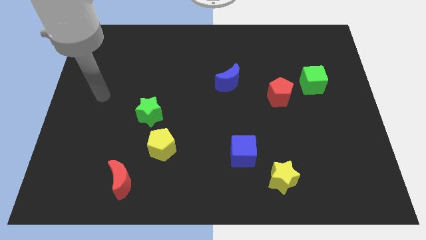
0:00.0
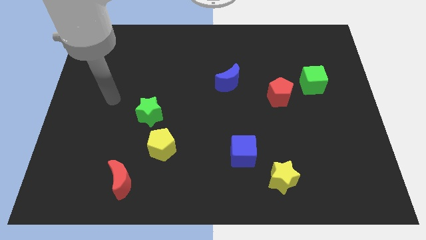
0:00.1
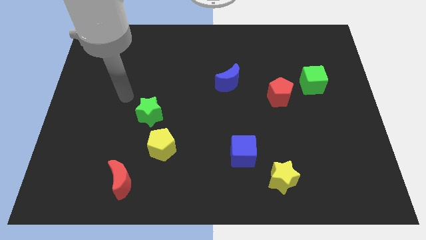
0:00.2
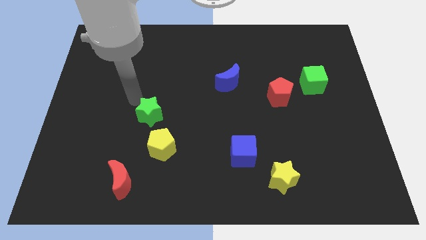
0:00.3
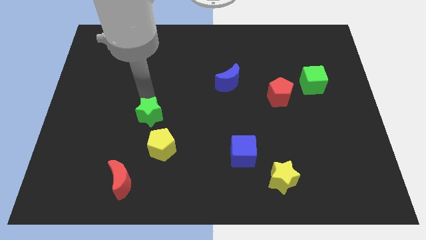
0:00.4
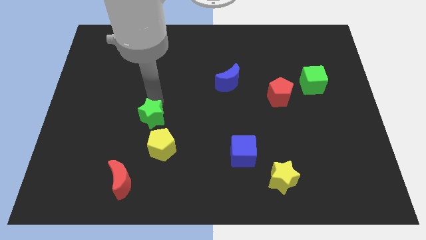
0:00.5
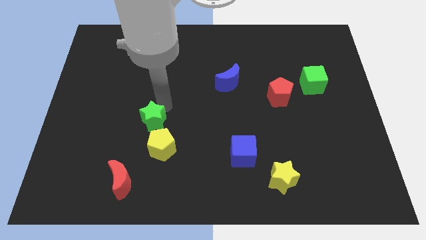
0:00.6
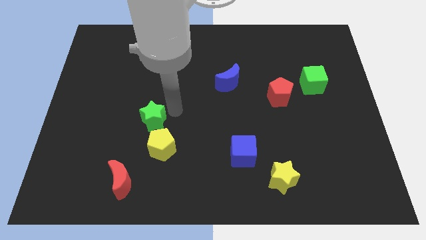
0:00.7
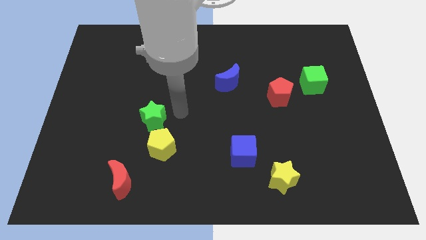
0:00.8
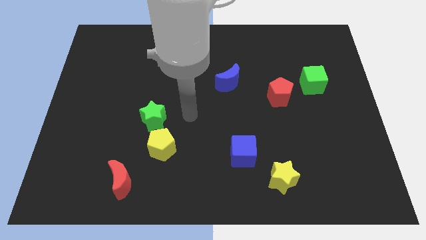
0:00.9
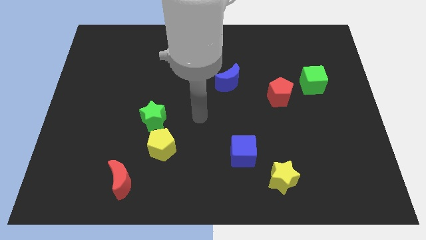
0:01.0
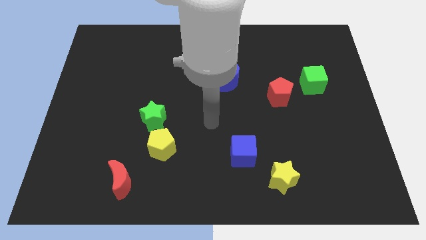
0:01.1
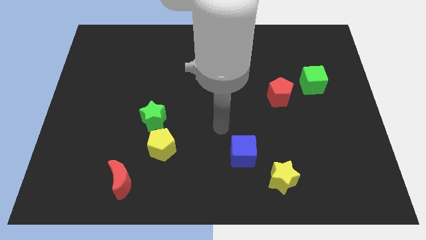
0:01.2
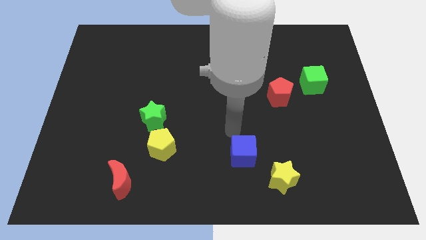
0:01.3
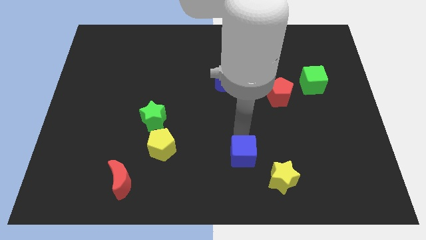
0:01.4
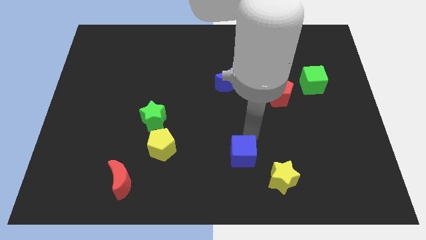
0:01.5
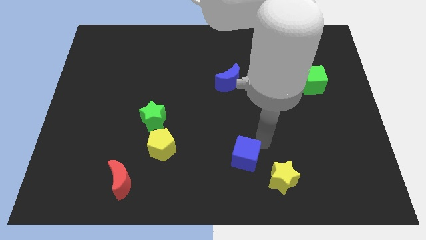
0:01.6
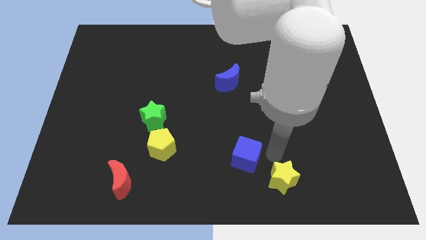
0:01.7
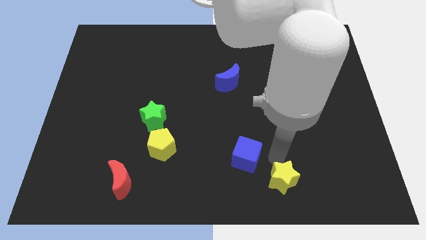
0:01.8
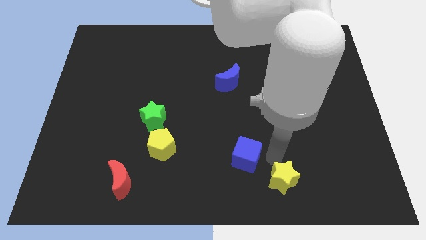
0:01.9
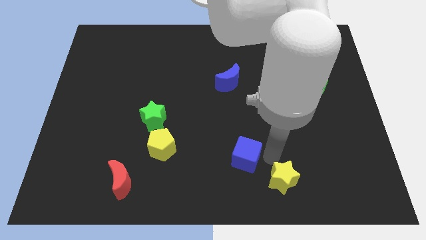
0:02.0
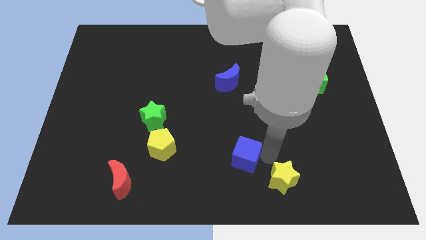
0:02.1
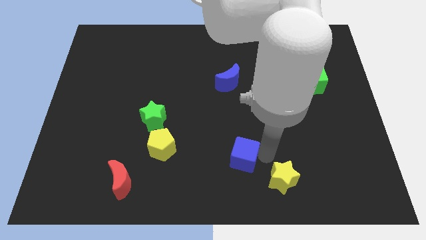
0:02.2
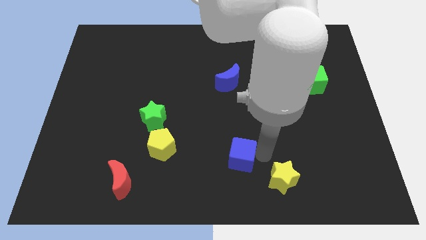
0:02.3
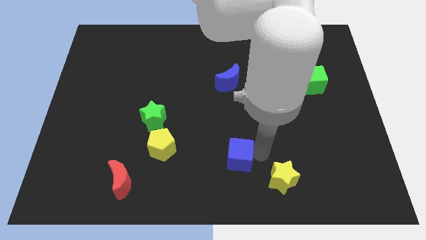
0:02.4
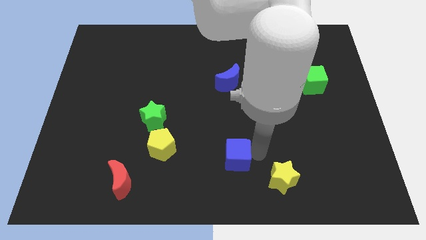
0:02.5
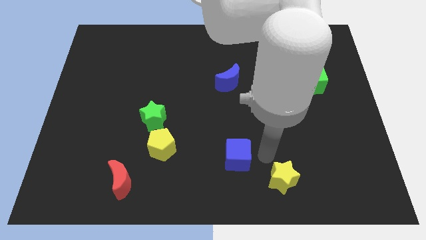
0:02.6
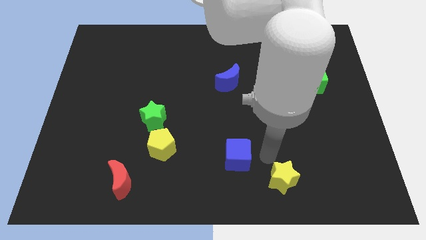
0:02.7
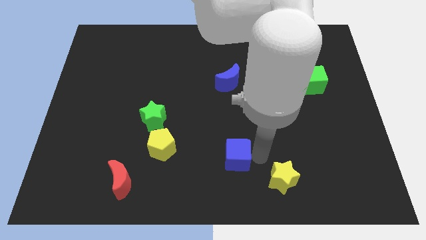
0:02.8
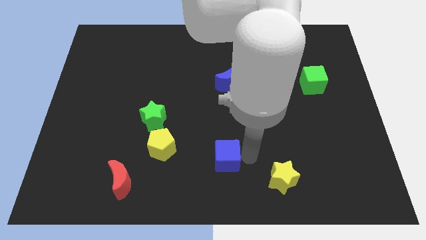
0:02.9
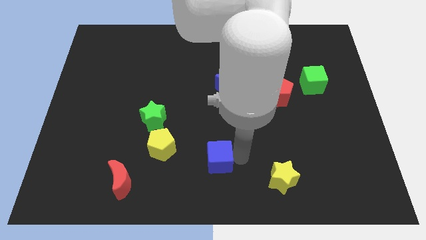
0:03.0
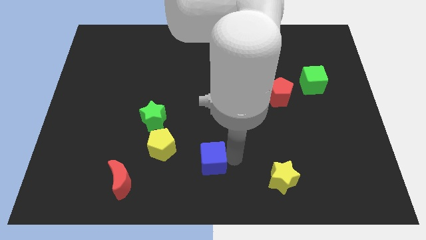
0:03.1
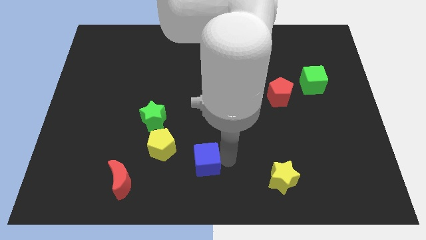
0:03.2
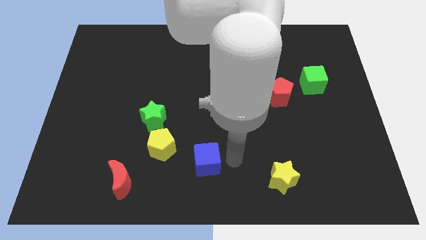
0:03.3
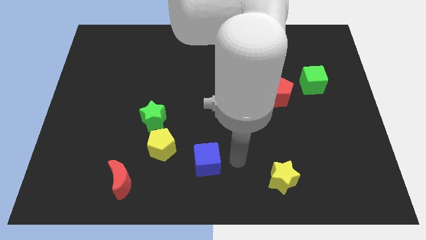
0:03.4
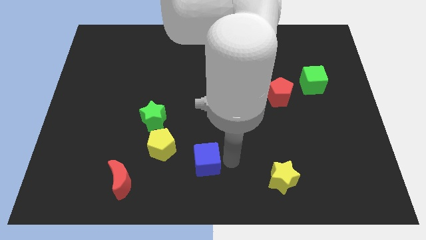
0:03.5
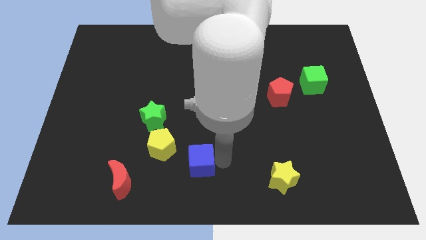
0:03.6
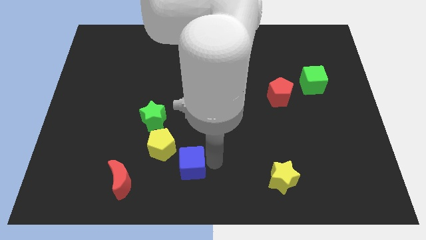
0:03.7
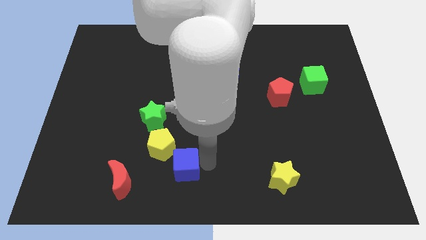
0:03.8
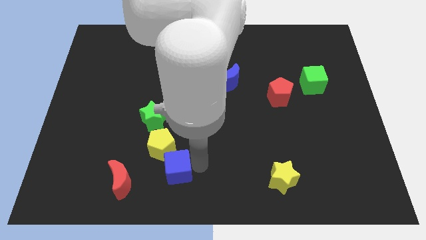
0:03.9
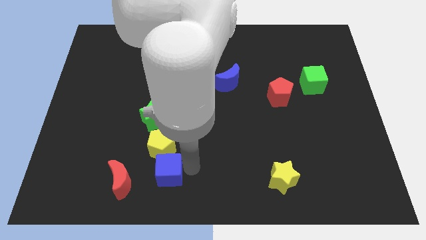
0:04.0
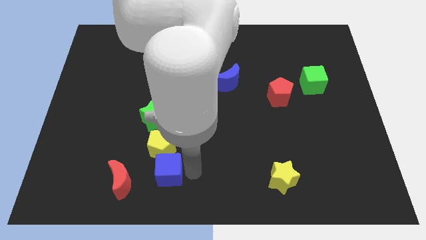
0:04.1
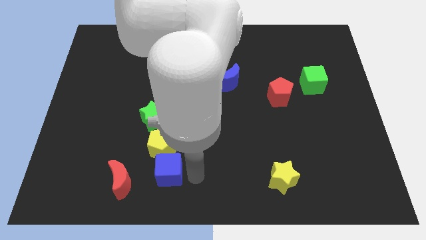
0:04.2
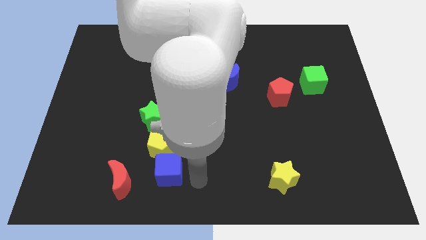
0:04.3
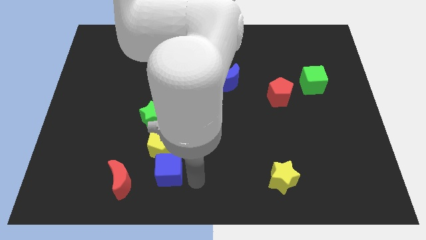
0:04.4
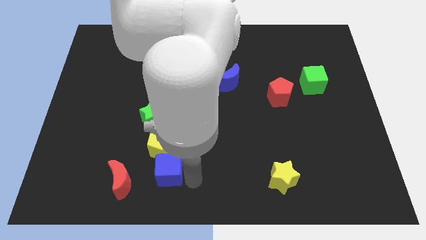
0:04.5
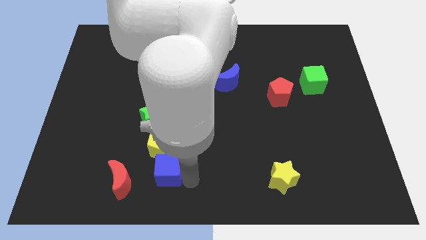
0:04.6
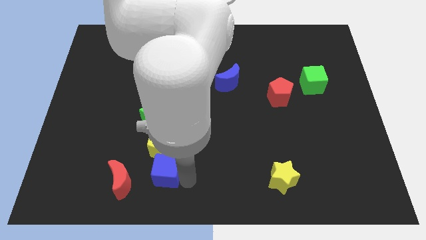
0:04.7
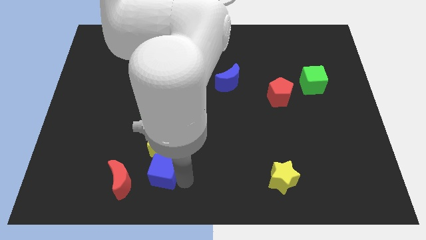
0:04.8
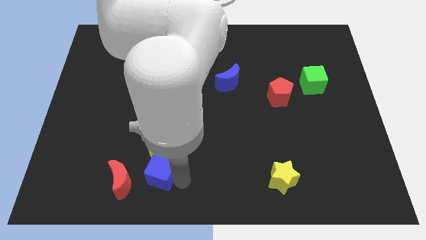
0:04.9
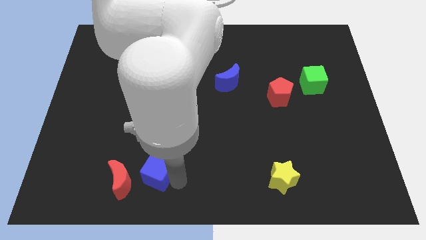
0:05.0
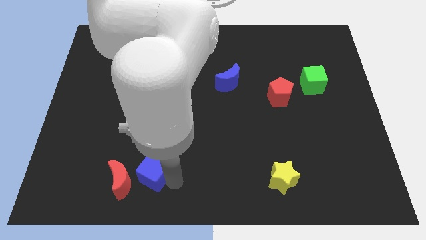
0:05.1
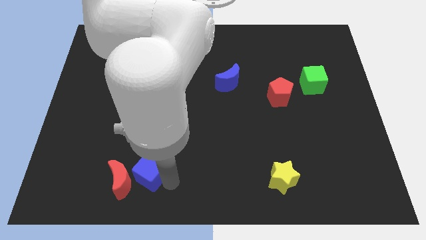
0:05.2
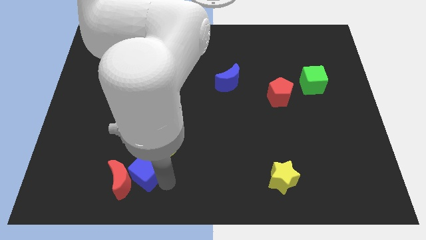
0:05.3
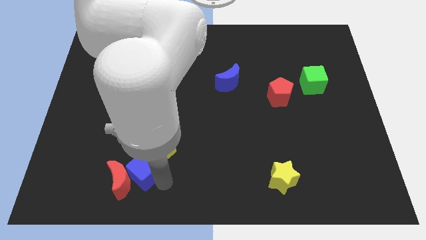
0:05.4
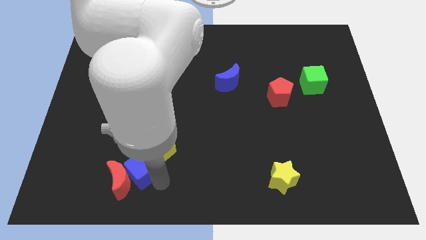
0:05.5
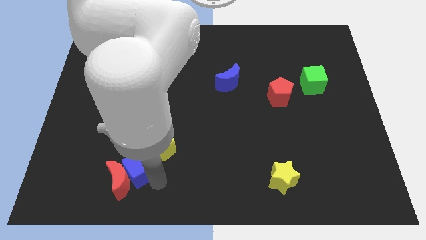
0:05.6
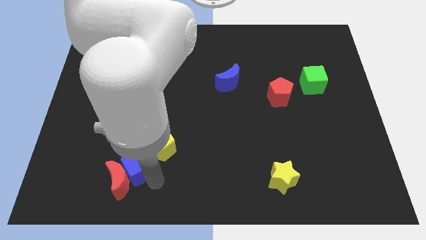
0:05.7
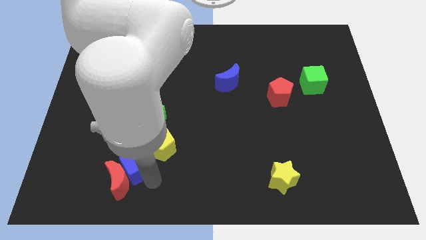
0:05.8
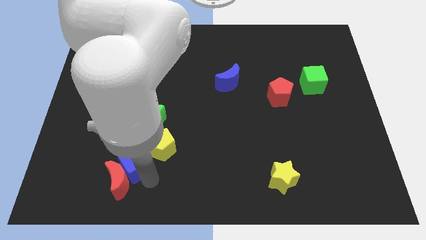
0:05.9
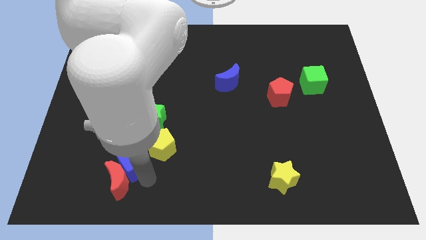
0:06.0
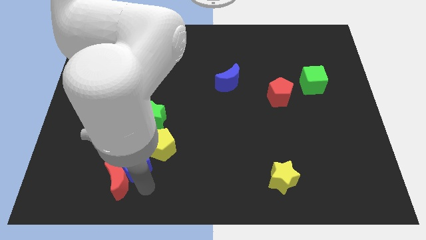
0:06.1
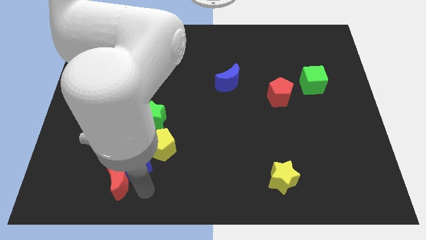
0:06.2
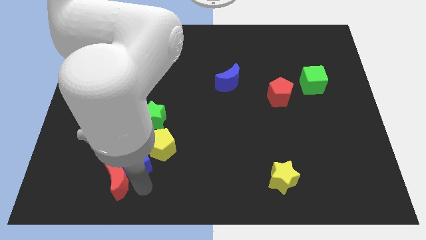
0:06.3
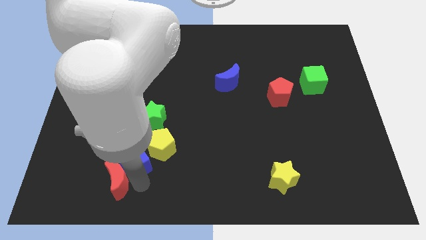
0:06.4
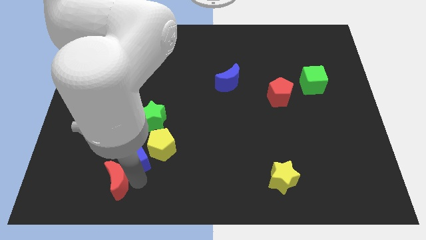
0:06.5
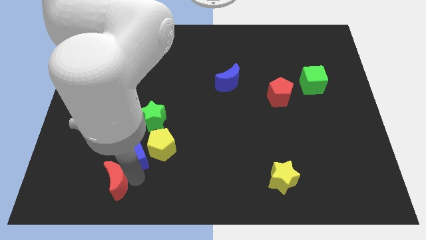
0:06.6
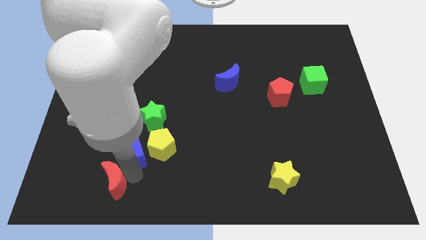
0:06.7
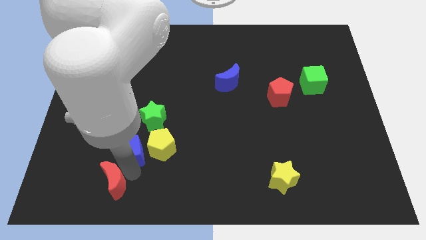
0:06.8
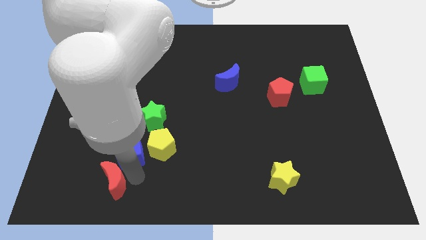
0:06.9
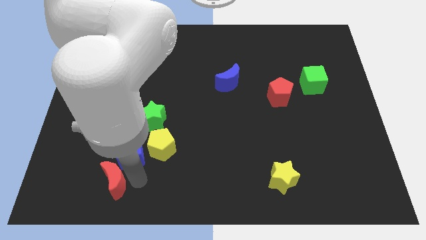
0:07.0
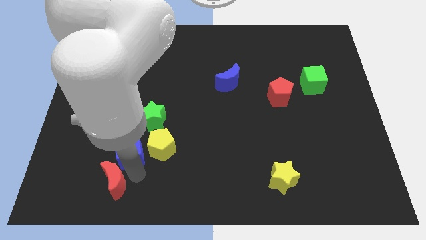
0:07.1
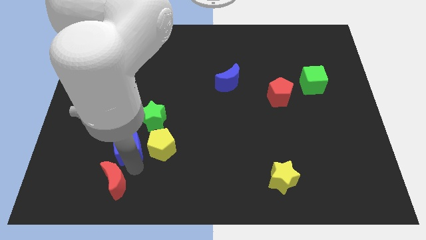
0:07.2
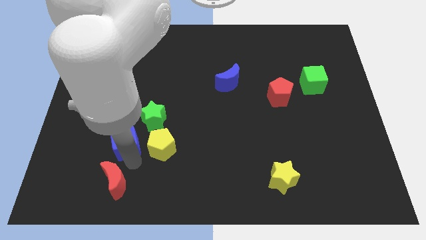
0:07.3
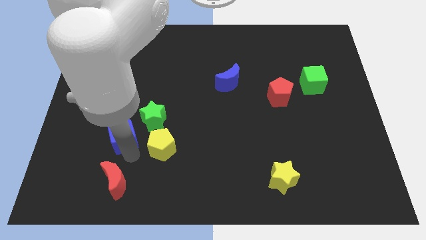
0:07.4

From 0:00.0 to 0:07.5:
move the blue cube left of the green star
